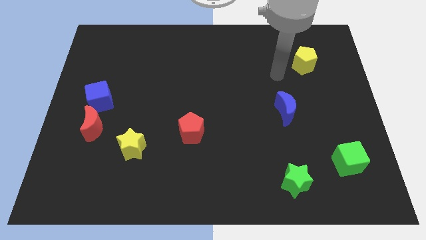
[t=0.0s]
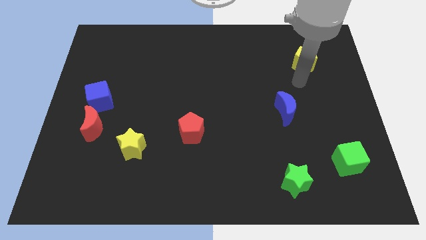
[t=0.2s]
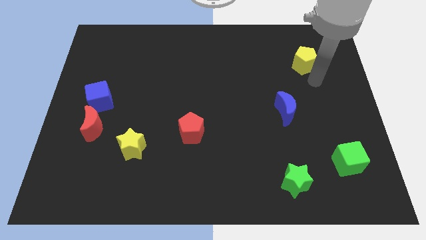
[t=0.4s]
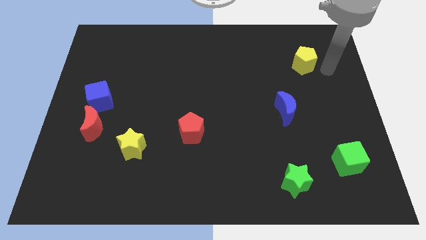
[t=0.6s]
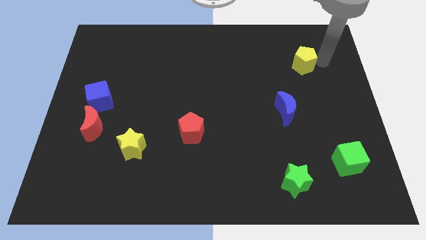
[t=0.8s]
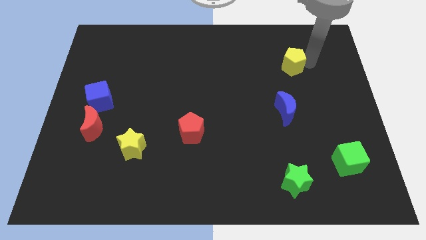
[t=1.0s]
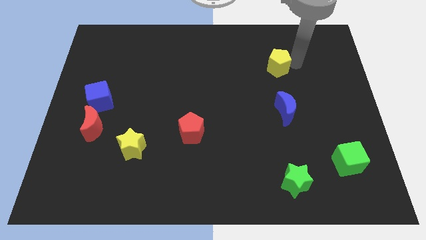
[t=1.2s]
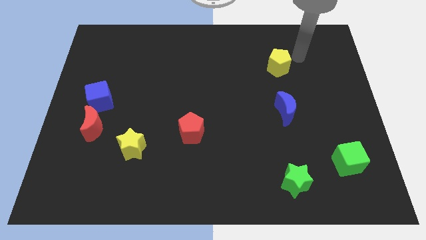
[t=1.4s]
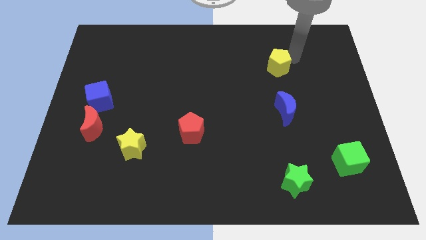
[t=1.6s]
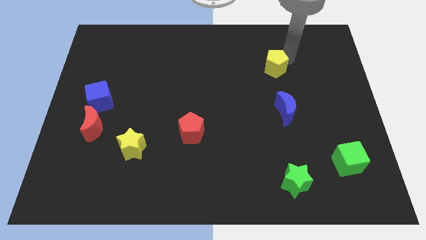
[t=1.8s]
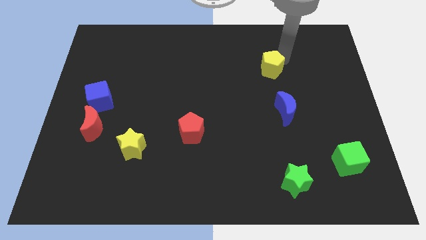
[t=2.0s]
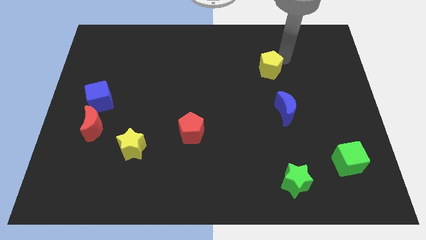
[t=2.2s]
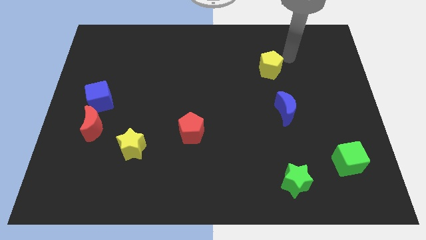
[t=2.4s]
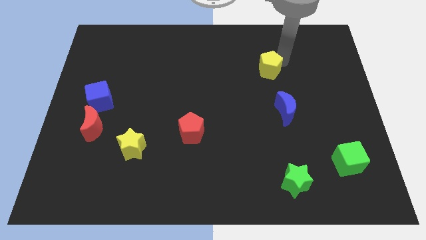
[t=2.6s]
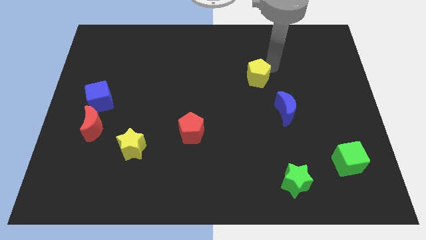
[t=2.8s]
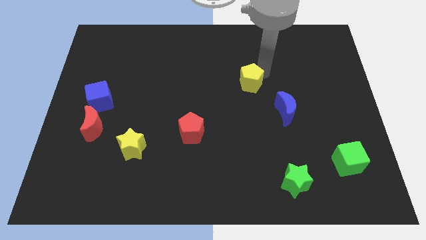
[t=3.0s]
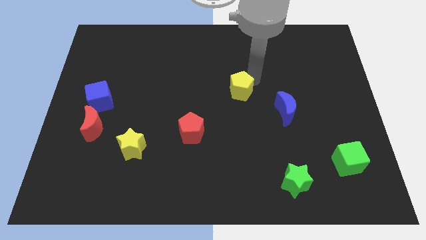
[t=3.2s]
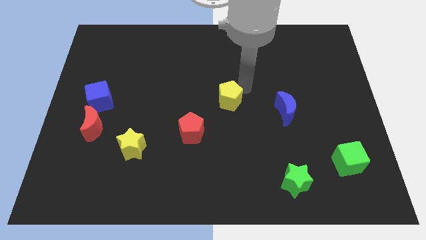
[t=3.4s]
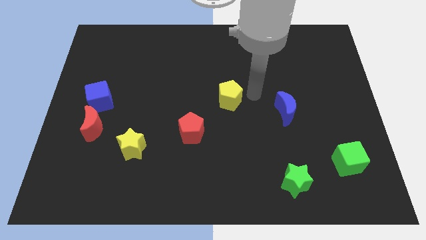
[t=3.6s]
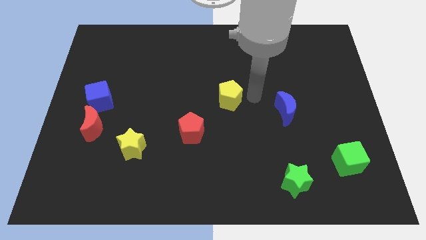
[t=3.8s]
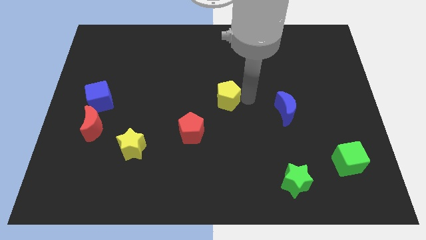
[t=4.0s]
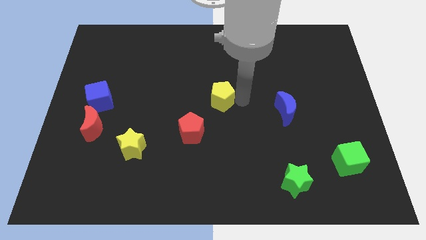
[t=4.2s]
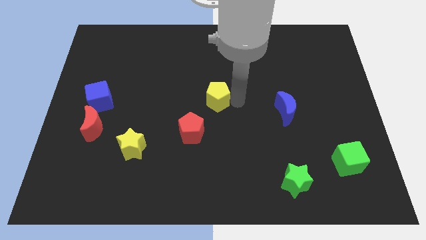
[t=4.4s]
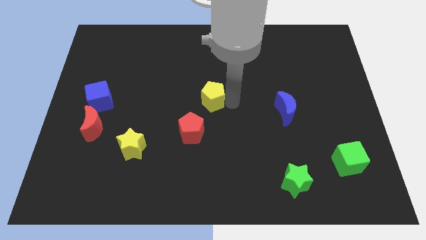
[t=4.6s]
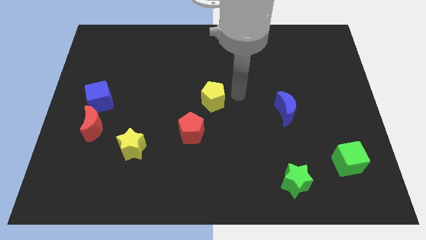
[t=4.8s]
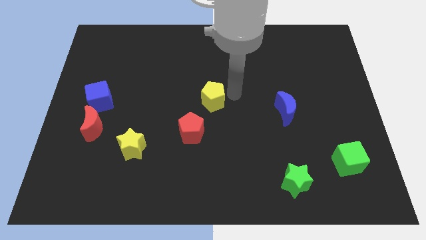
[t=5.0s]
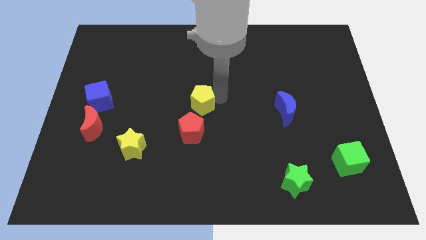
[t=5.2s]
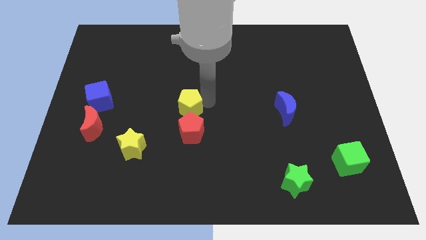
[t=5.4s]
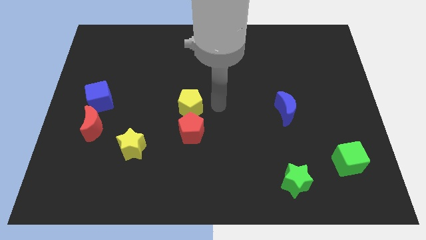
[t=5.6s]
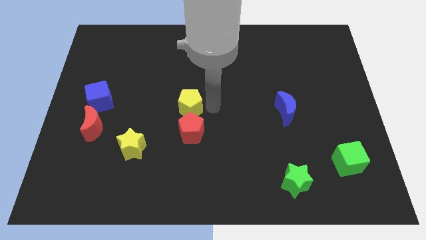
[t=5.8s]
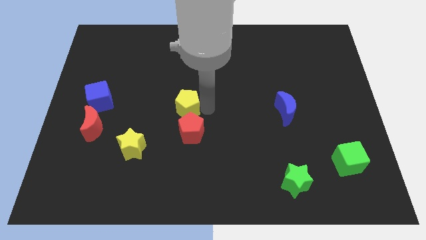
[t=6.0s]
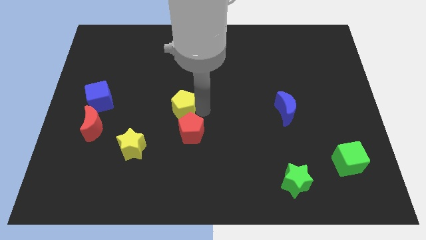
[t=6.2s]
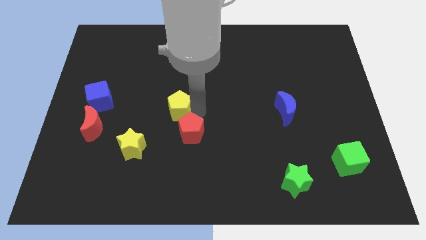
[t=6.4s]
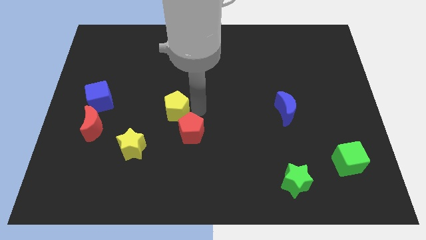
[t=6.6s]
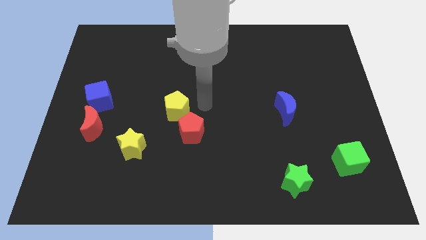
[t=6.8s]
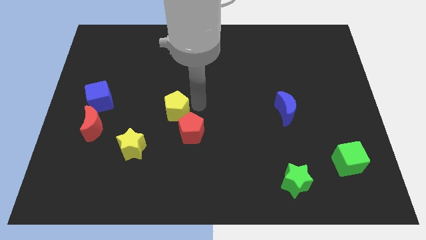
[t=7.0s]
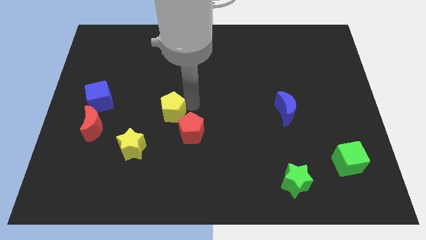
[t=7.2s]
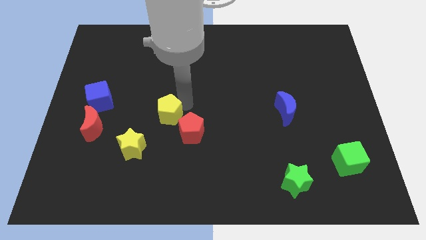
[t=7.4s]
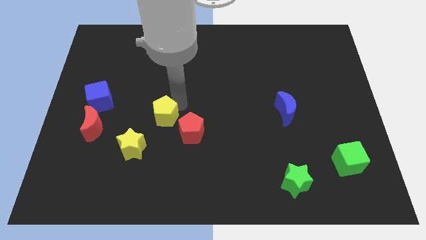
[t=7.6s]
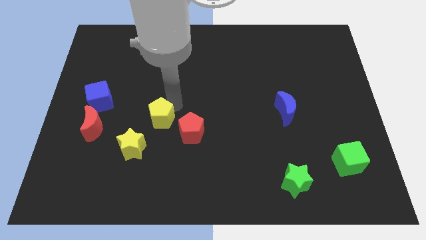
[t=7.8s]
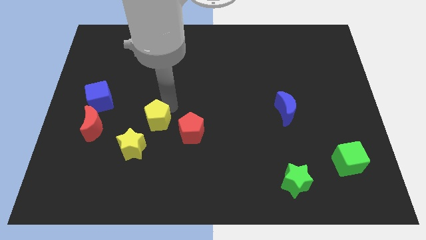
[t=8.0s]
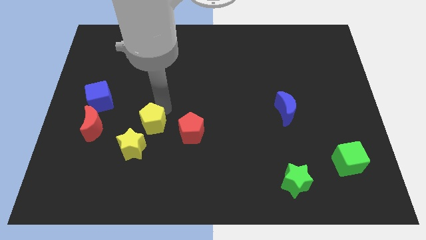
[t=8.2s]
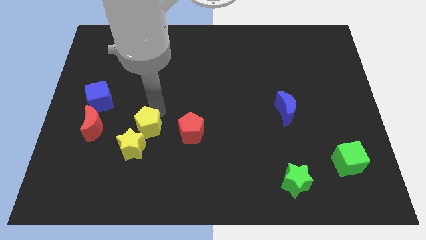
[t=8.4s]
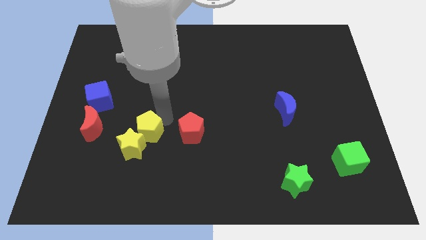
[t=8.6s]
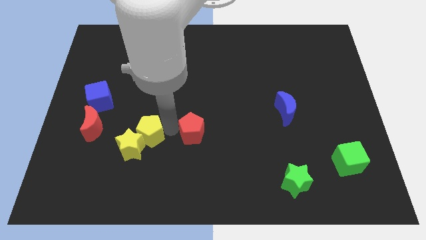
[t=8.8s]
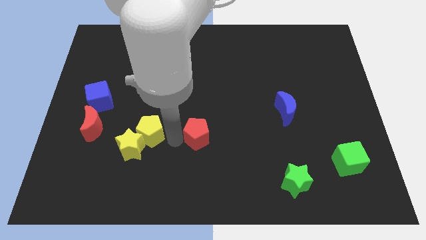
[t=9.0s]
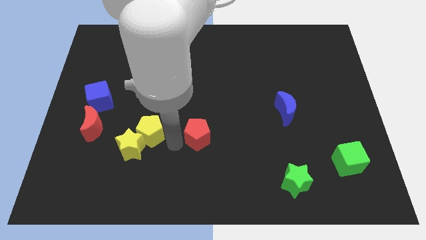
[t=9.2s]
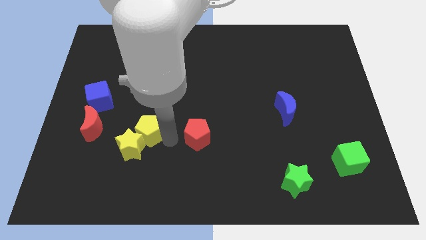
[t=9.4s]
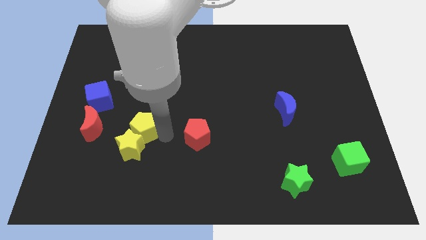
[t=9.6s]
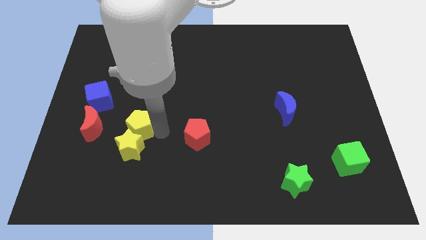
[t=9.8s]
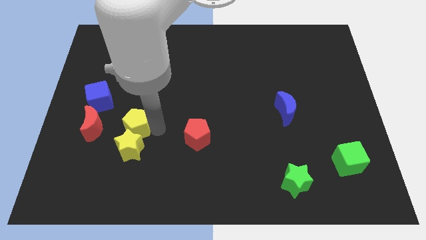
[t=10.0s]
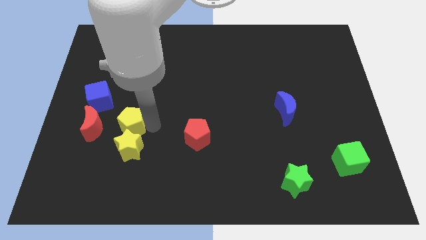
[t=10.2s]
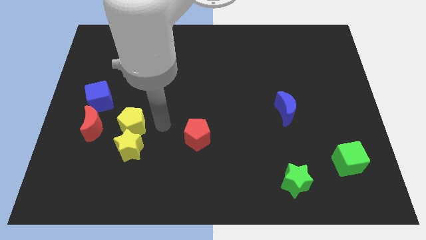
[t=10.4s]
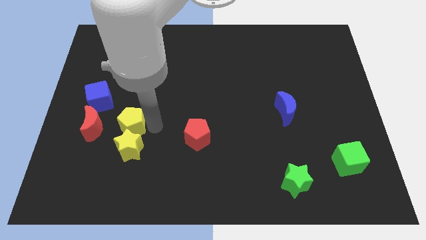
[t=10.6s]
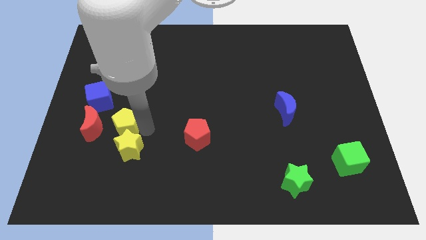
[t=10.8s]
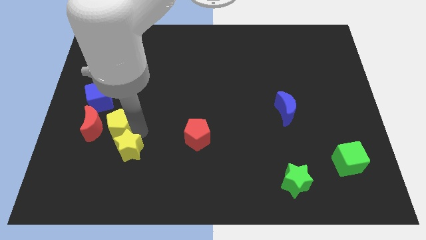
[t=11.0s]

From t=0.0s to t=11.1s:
move the yellow pentagon close to the red moon

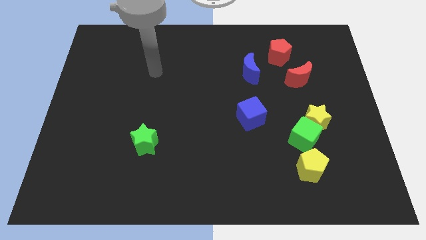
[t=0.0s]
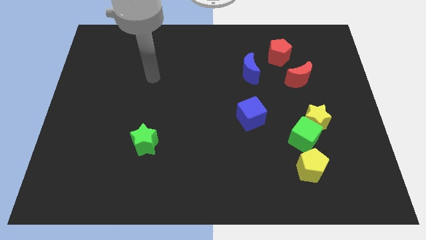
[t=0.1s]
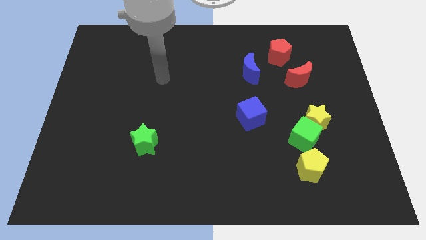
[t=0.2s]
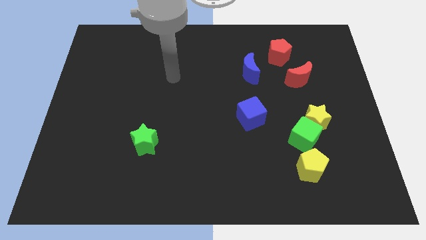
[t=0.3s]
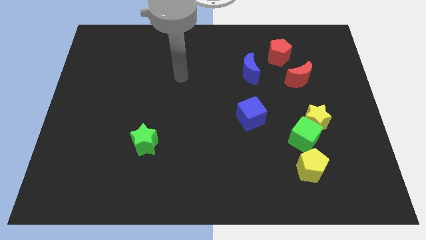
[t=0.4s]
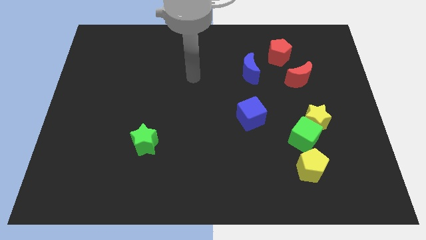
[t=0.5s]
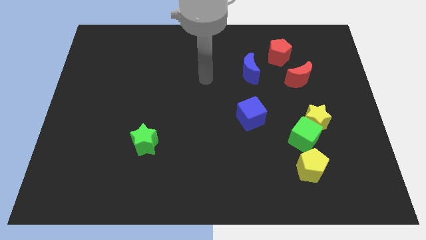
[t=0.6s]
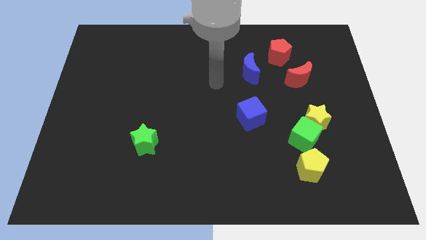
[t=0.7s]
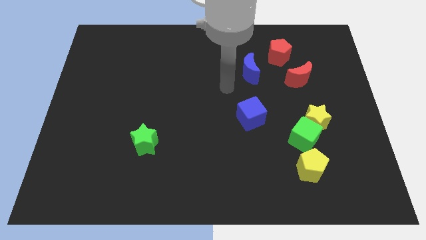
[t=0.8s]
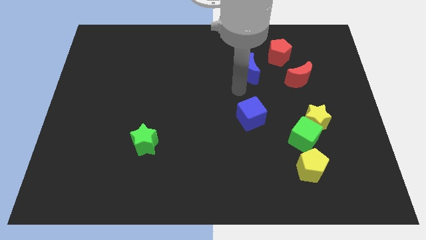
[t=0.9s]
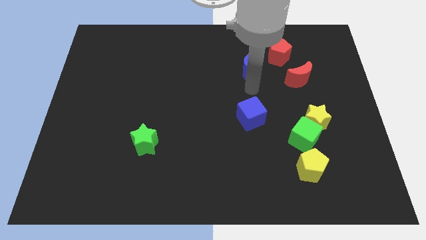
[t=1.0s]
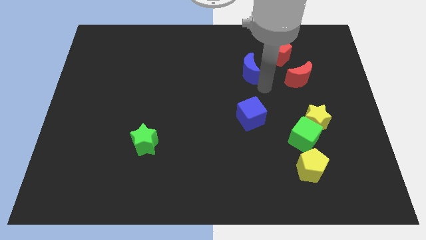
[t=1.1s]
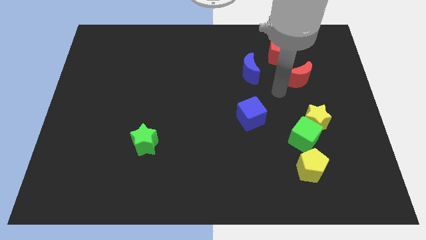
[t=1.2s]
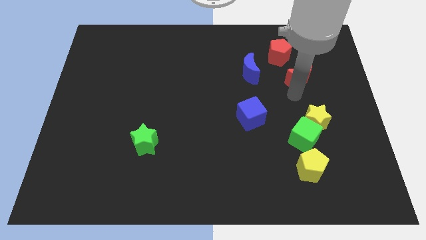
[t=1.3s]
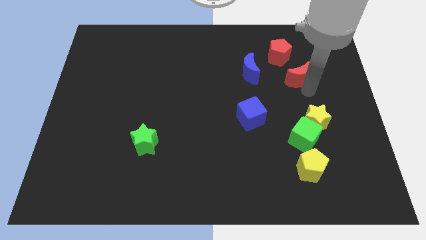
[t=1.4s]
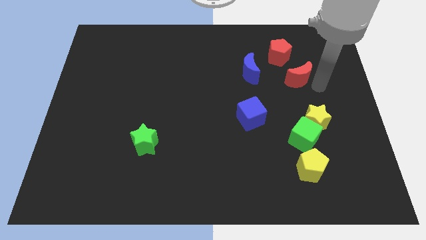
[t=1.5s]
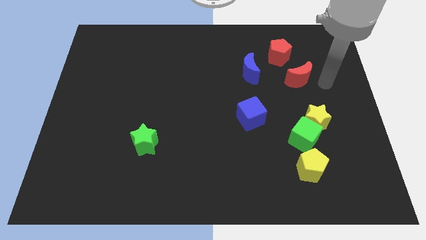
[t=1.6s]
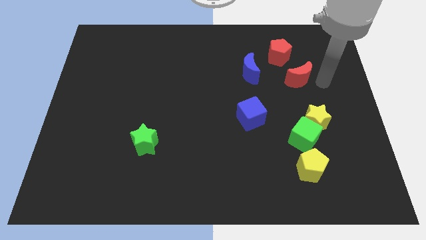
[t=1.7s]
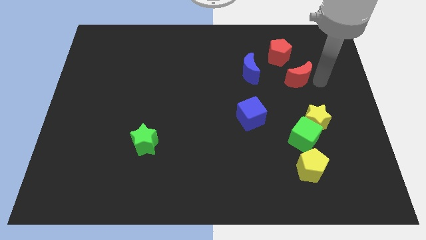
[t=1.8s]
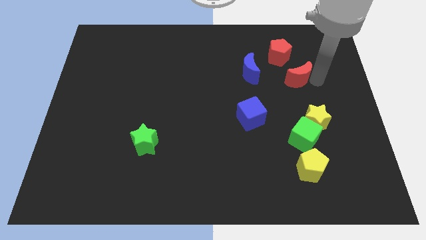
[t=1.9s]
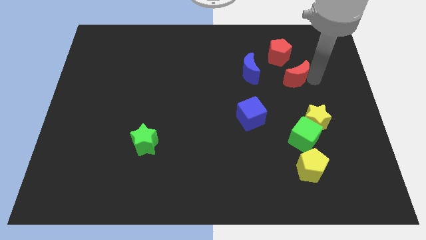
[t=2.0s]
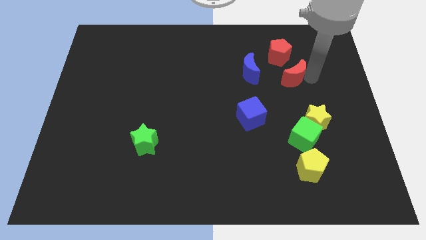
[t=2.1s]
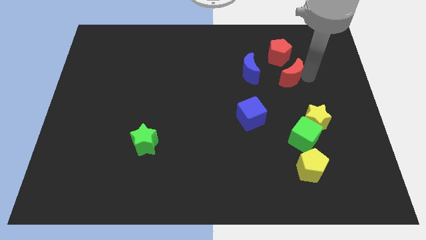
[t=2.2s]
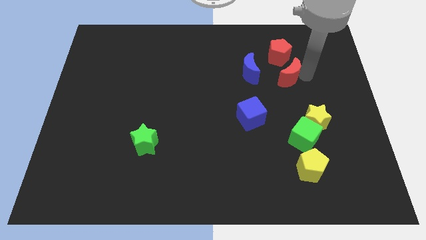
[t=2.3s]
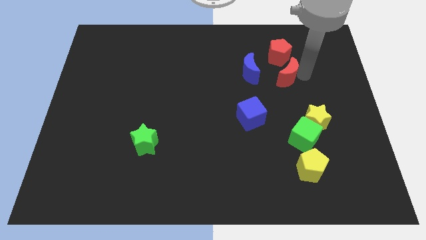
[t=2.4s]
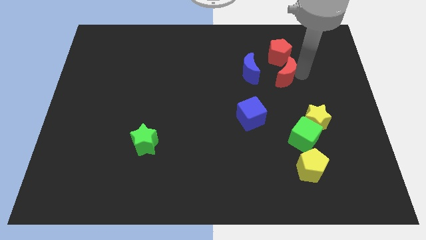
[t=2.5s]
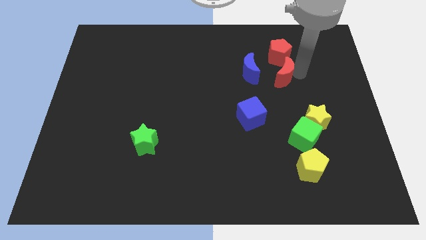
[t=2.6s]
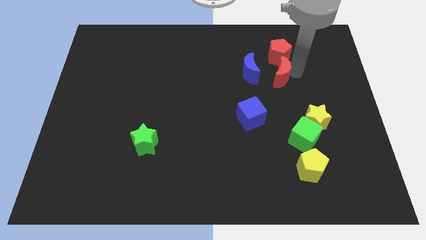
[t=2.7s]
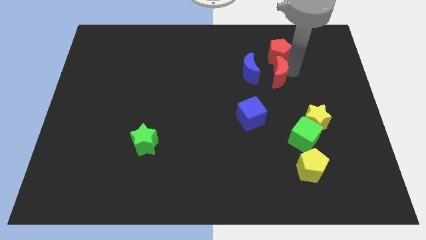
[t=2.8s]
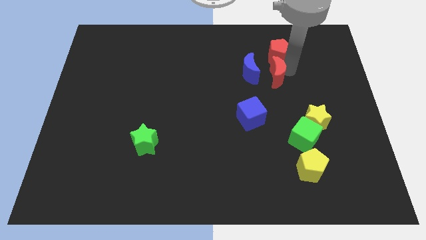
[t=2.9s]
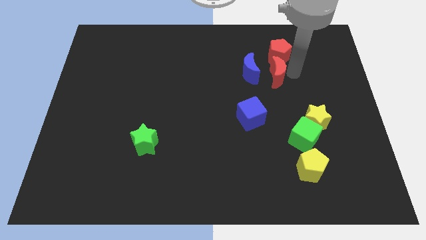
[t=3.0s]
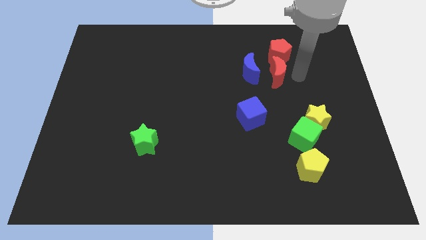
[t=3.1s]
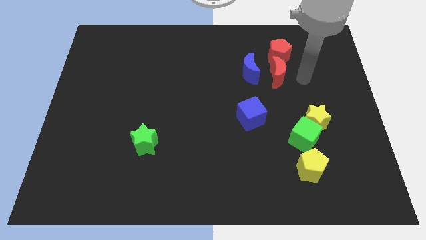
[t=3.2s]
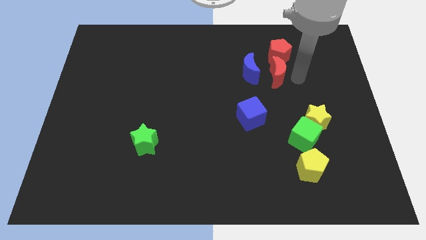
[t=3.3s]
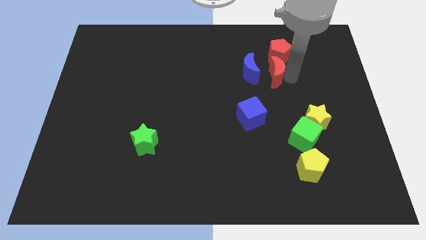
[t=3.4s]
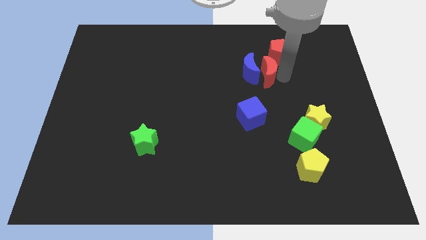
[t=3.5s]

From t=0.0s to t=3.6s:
slide the red moon next to the blue moon
